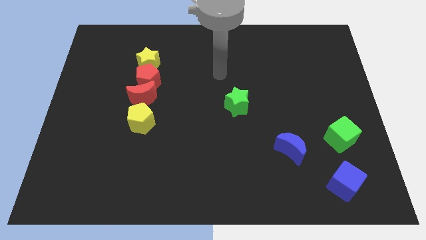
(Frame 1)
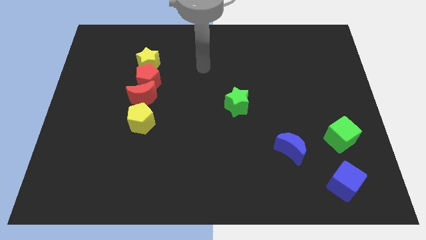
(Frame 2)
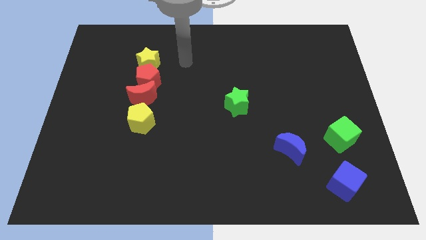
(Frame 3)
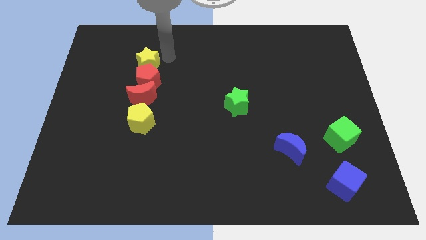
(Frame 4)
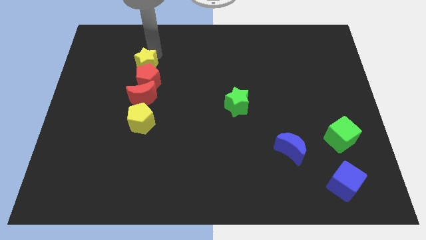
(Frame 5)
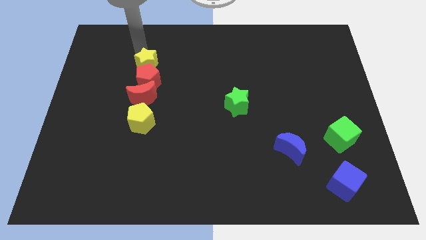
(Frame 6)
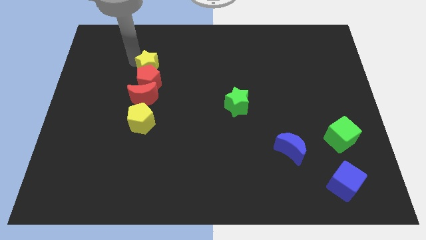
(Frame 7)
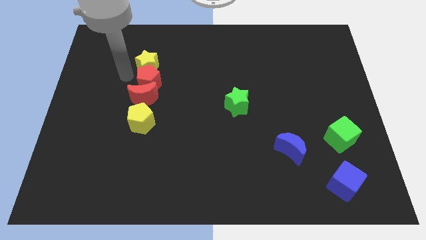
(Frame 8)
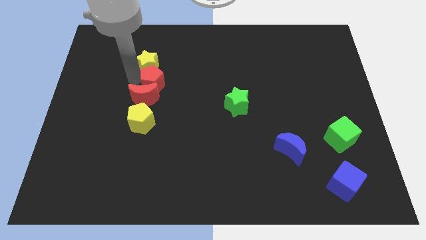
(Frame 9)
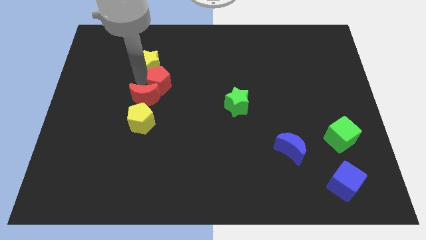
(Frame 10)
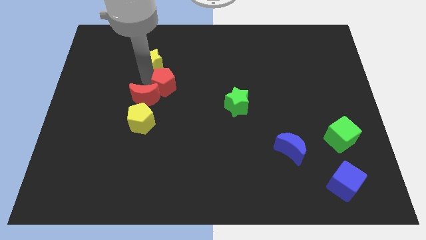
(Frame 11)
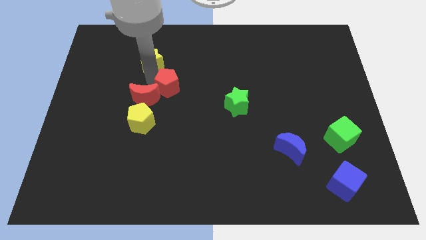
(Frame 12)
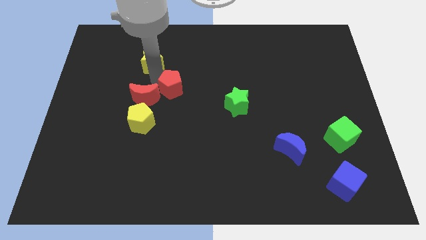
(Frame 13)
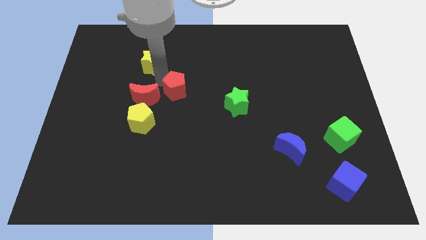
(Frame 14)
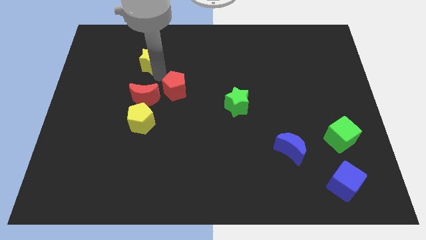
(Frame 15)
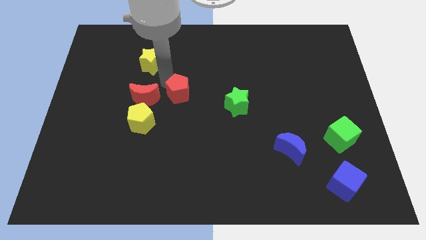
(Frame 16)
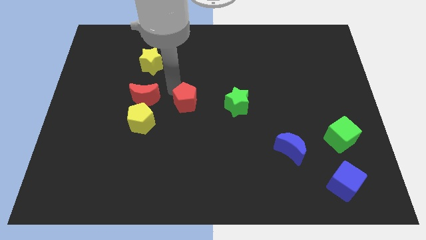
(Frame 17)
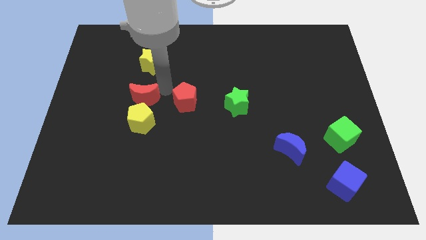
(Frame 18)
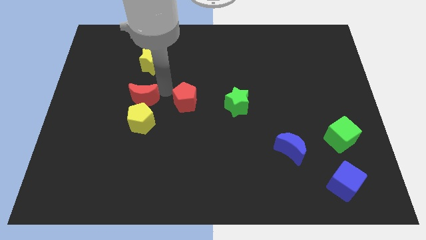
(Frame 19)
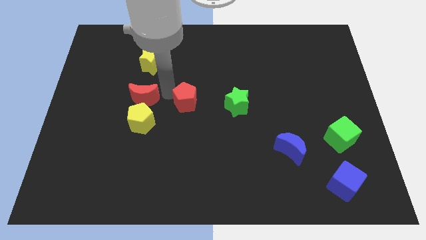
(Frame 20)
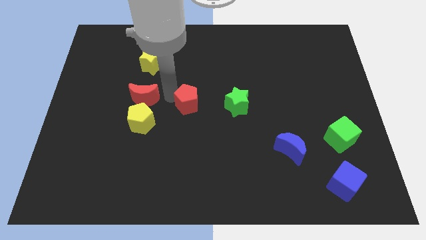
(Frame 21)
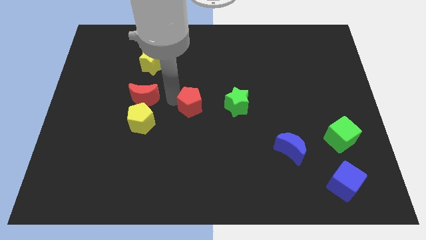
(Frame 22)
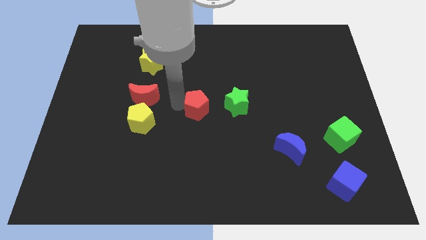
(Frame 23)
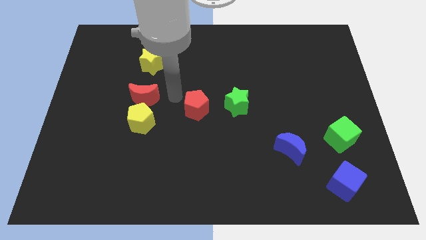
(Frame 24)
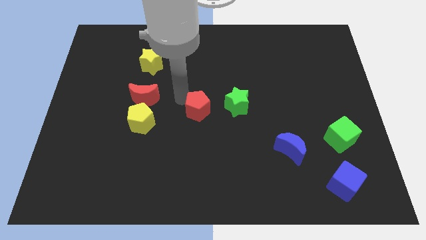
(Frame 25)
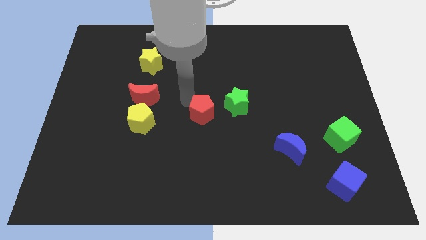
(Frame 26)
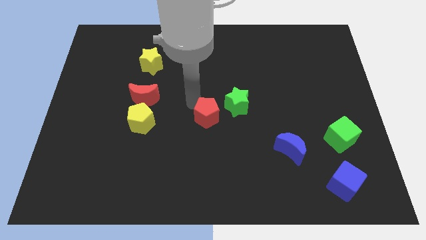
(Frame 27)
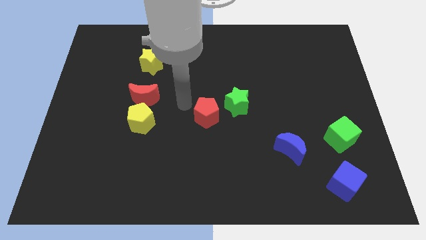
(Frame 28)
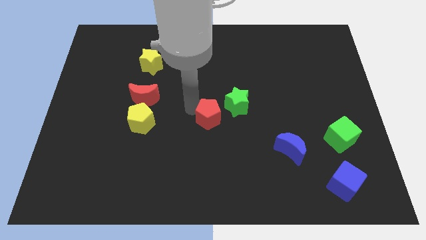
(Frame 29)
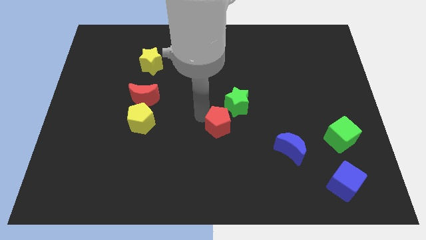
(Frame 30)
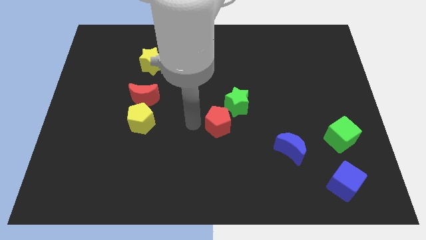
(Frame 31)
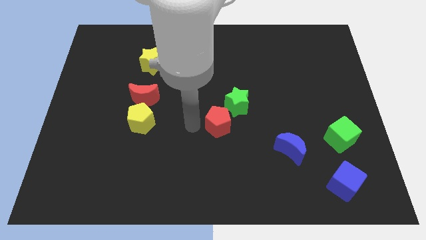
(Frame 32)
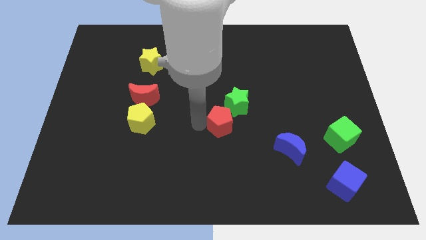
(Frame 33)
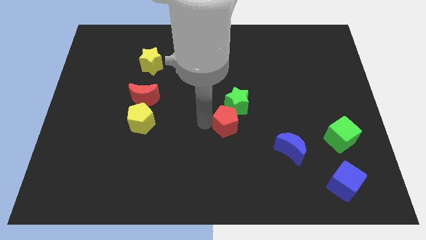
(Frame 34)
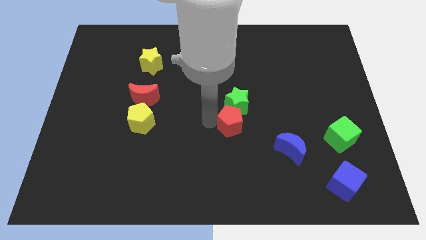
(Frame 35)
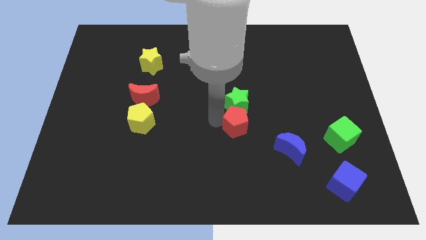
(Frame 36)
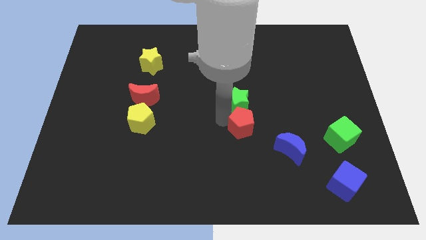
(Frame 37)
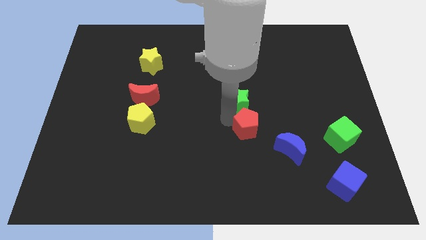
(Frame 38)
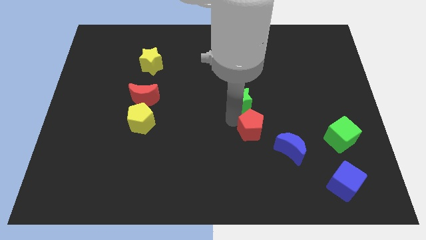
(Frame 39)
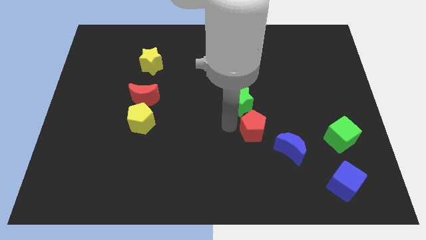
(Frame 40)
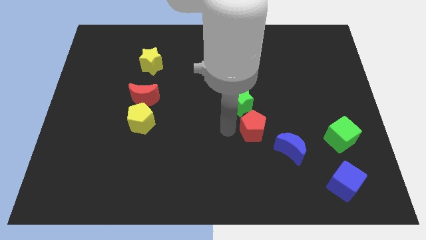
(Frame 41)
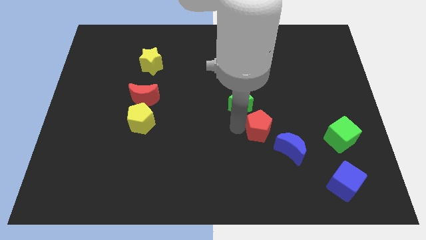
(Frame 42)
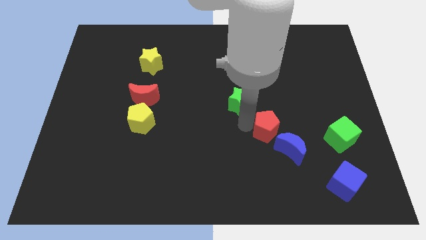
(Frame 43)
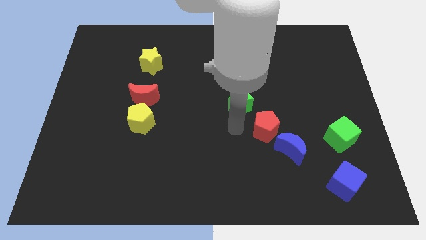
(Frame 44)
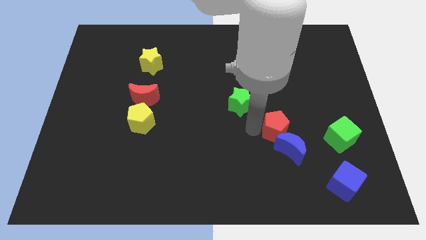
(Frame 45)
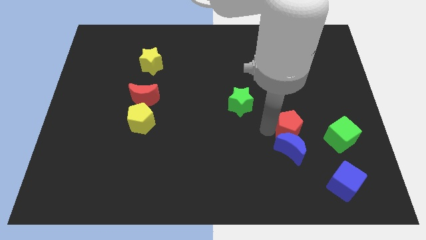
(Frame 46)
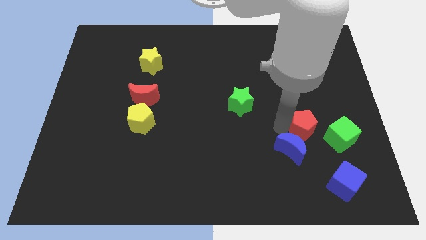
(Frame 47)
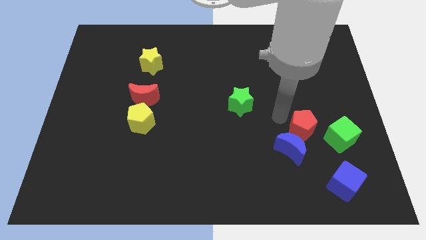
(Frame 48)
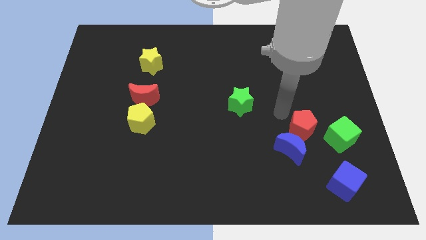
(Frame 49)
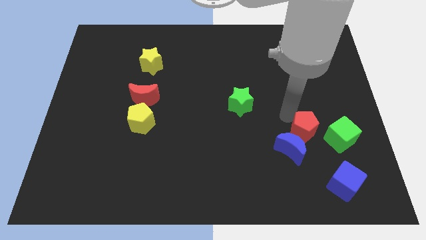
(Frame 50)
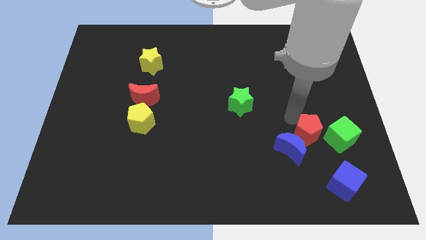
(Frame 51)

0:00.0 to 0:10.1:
slide the red pentagon right of the blue moon

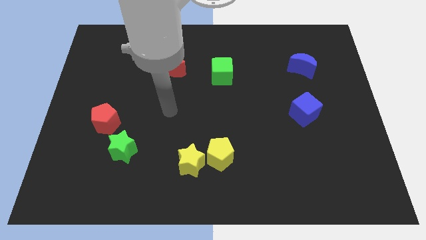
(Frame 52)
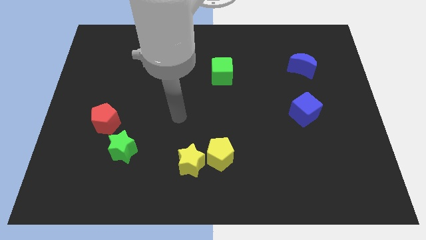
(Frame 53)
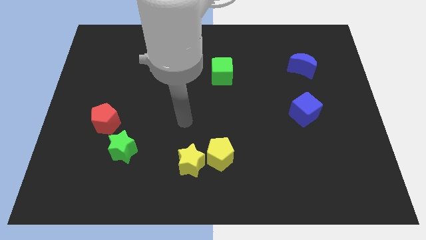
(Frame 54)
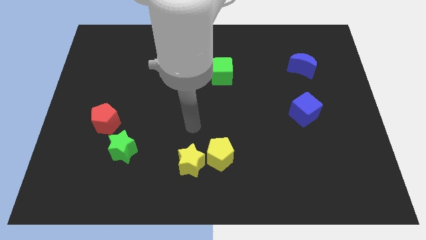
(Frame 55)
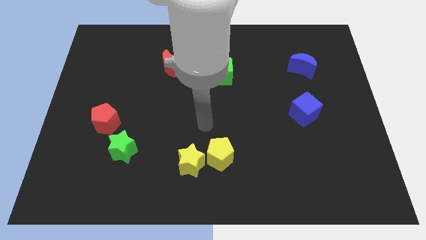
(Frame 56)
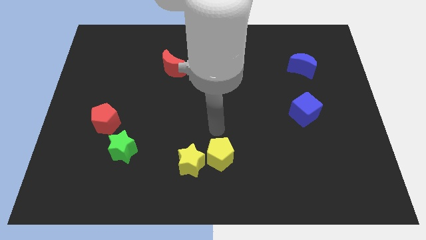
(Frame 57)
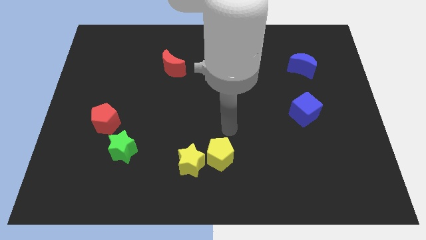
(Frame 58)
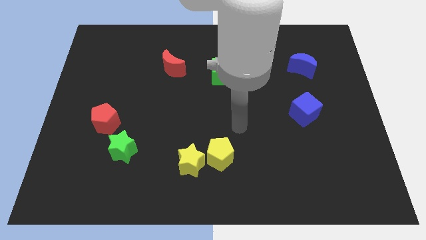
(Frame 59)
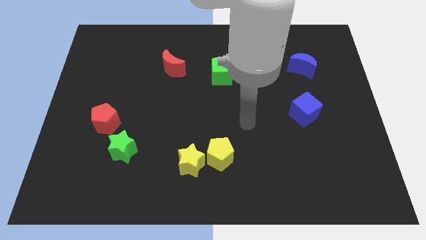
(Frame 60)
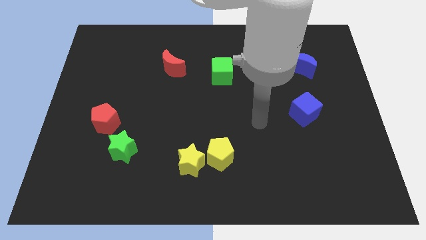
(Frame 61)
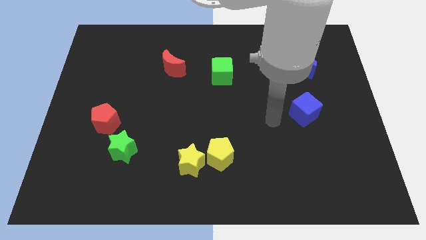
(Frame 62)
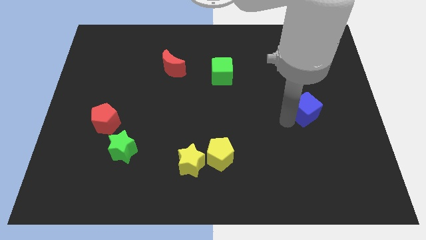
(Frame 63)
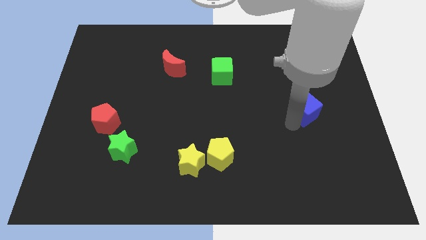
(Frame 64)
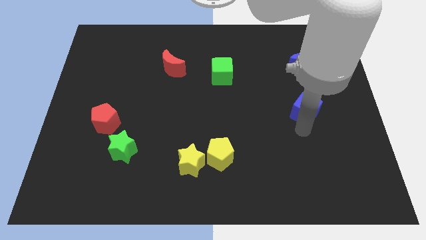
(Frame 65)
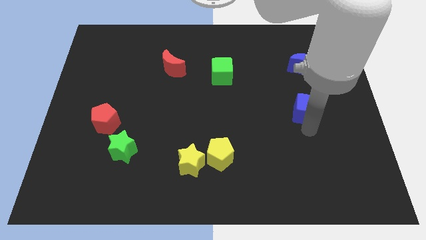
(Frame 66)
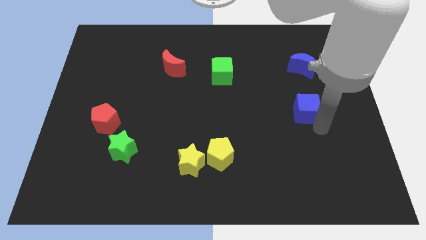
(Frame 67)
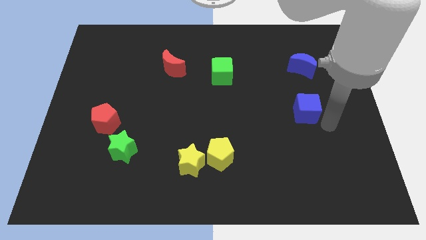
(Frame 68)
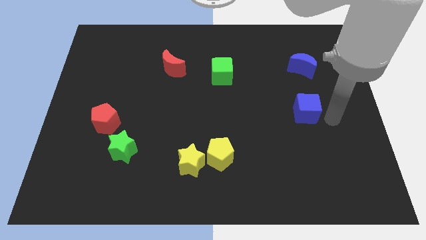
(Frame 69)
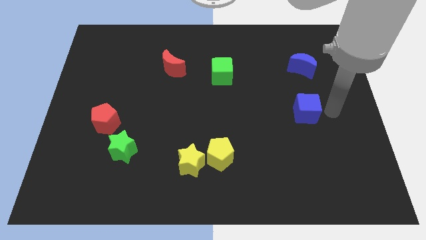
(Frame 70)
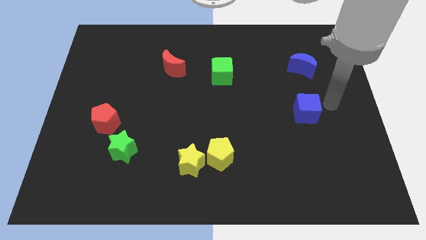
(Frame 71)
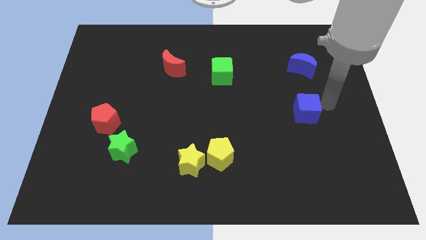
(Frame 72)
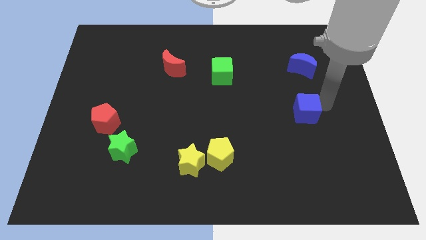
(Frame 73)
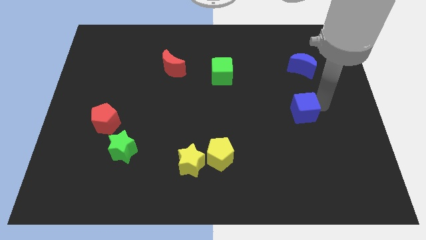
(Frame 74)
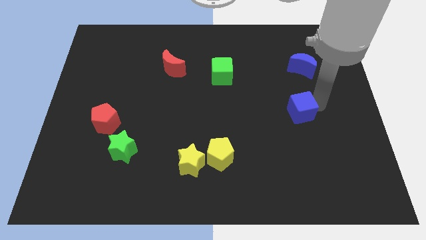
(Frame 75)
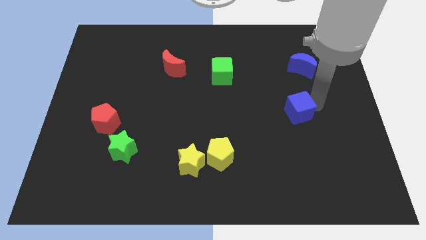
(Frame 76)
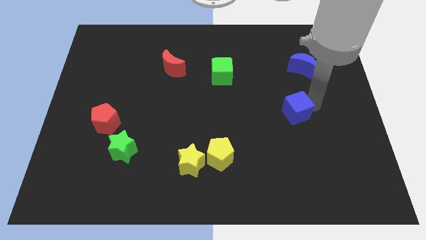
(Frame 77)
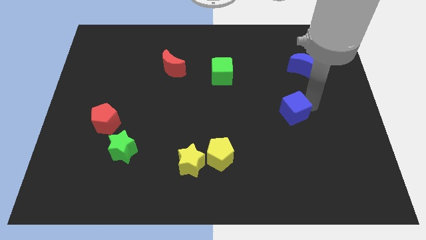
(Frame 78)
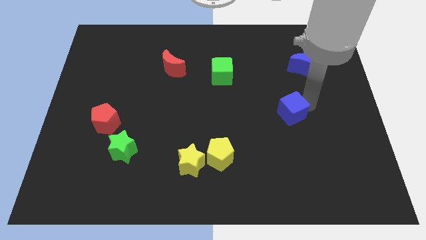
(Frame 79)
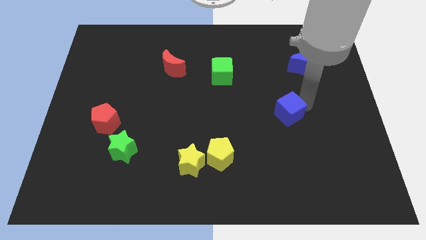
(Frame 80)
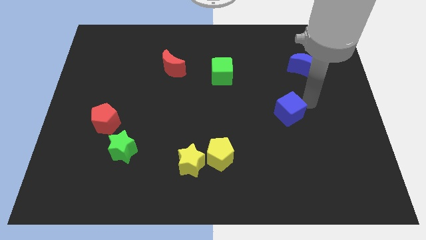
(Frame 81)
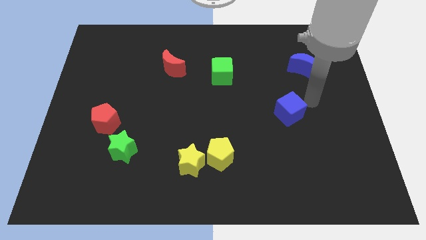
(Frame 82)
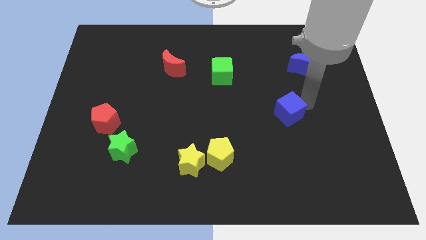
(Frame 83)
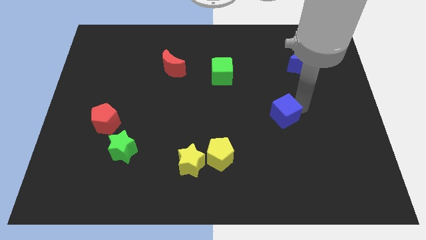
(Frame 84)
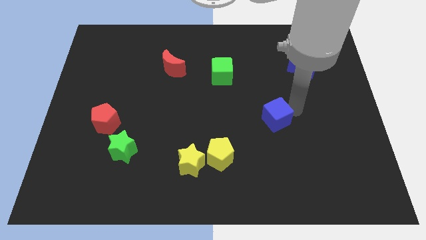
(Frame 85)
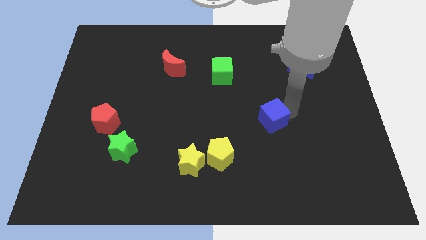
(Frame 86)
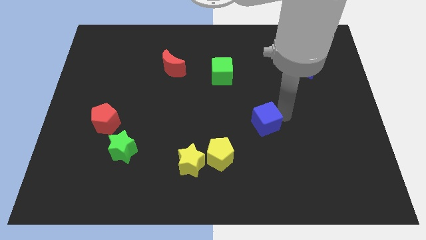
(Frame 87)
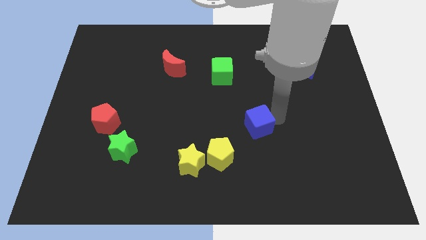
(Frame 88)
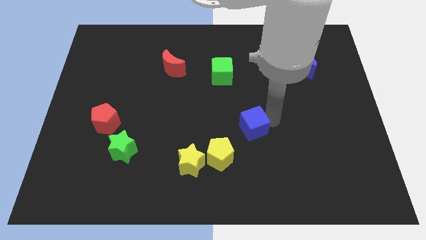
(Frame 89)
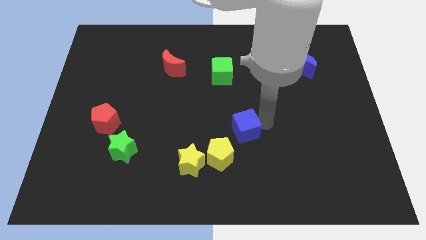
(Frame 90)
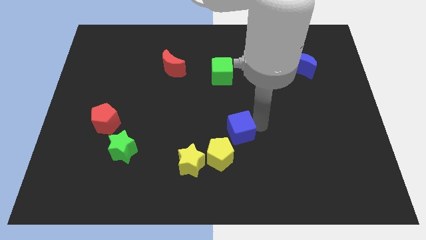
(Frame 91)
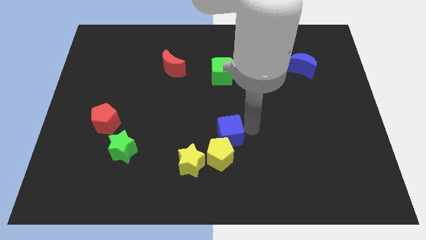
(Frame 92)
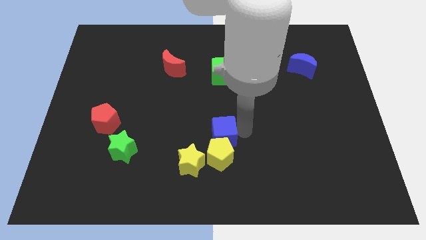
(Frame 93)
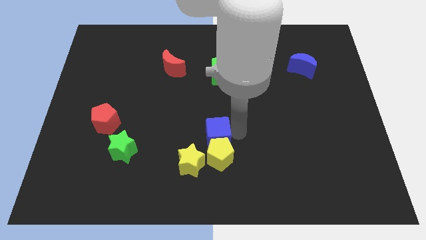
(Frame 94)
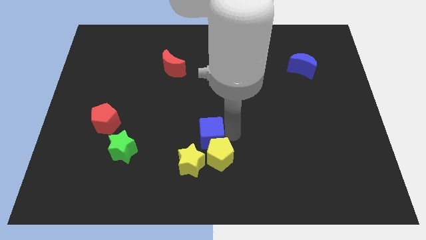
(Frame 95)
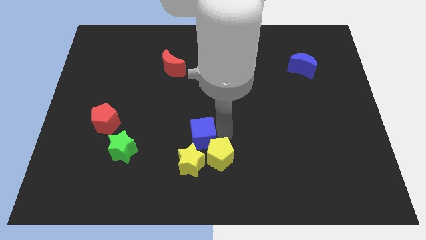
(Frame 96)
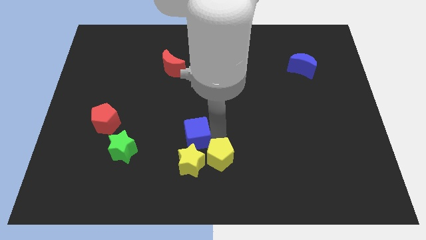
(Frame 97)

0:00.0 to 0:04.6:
slide the blue cube to the left side of the yellow pentagon
